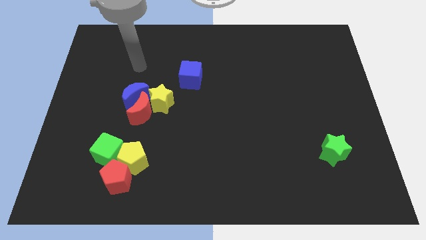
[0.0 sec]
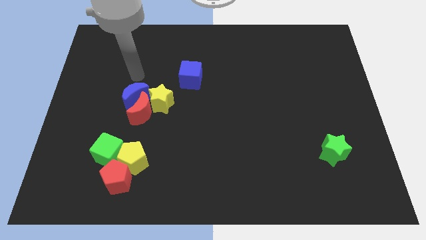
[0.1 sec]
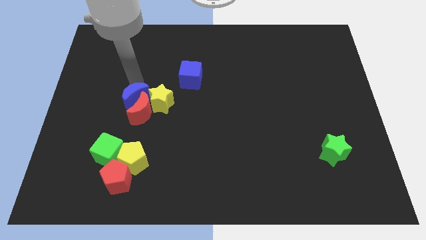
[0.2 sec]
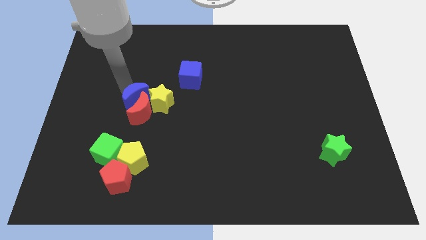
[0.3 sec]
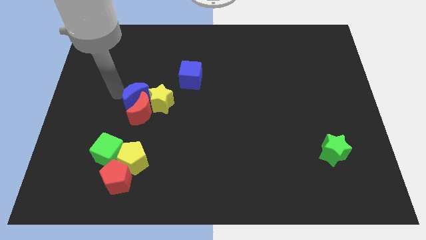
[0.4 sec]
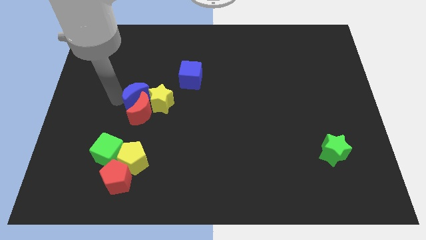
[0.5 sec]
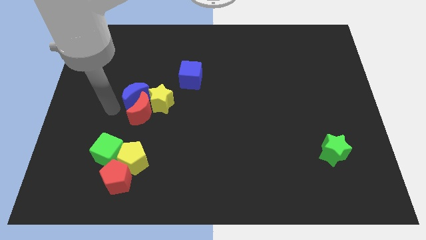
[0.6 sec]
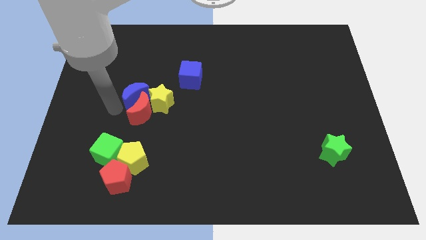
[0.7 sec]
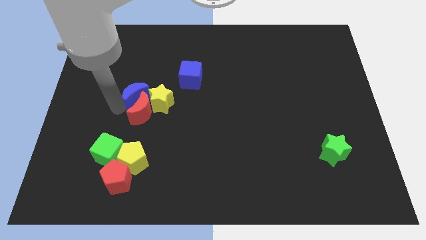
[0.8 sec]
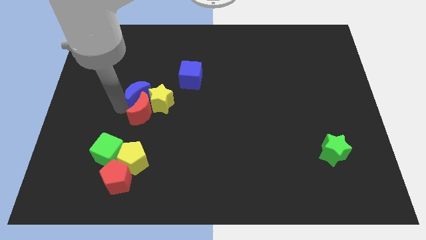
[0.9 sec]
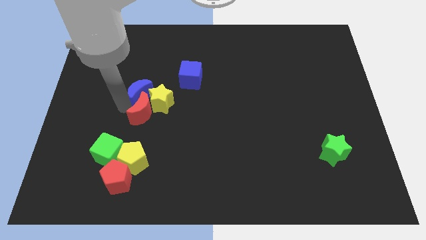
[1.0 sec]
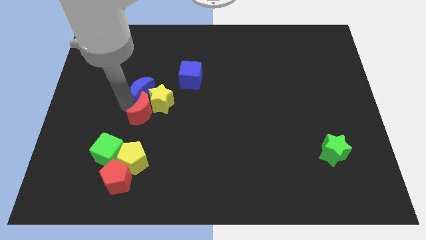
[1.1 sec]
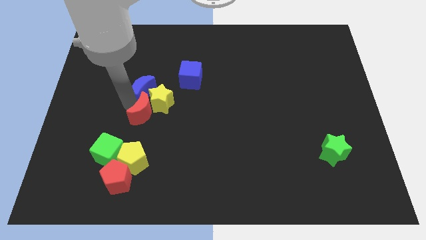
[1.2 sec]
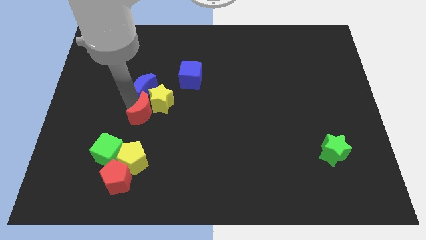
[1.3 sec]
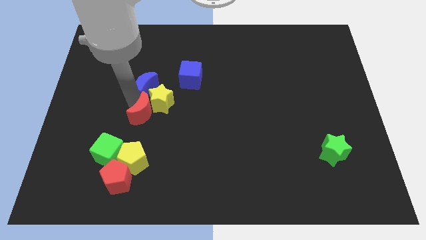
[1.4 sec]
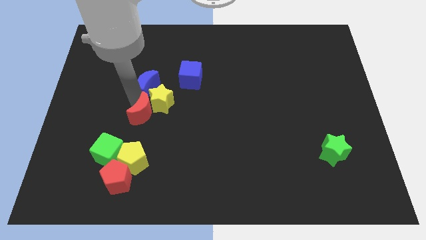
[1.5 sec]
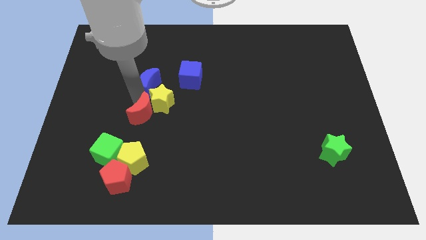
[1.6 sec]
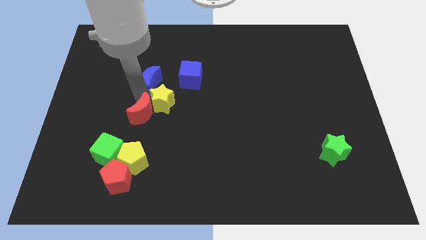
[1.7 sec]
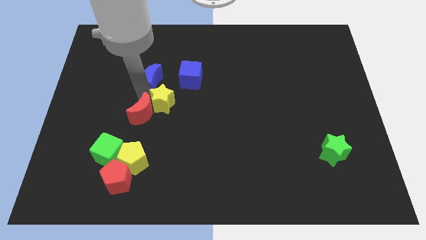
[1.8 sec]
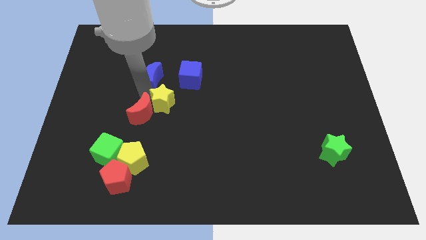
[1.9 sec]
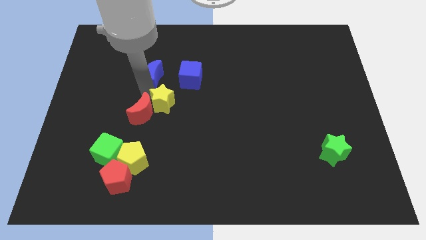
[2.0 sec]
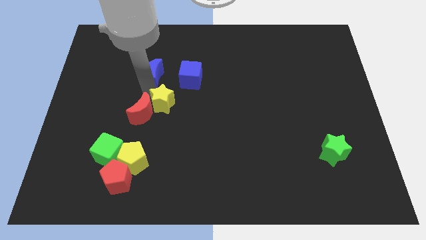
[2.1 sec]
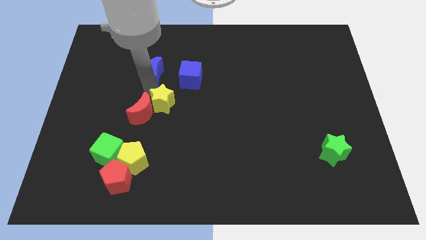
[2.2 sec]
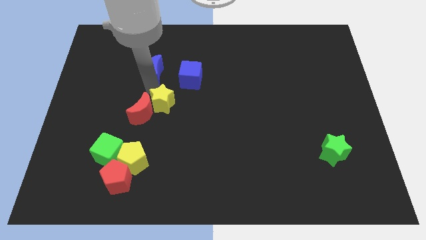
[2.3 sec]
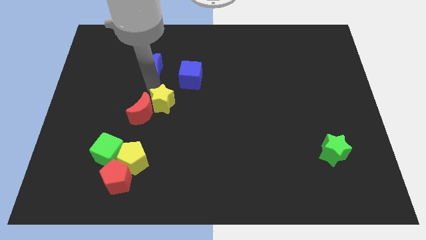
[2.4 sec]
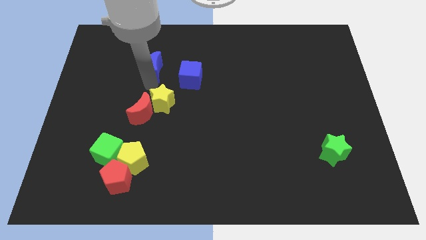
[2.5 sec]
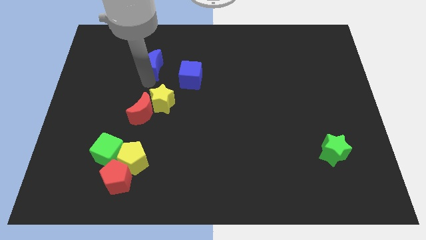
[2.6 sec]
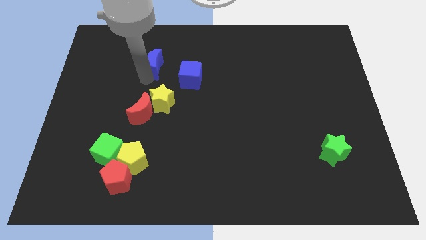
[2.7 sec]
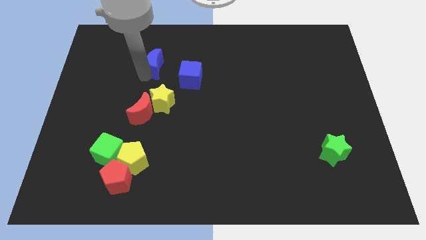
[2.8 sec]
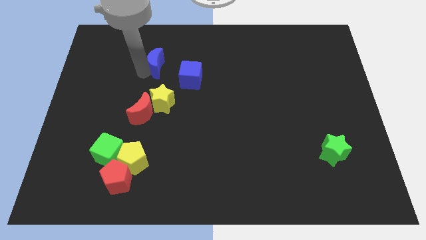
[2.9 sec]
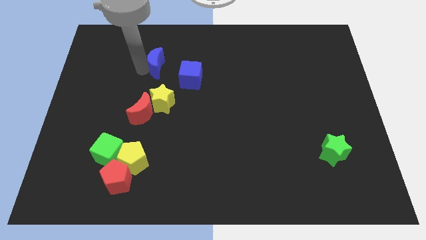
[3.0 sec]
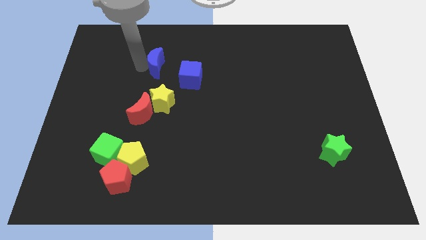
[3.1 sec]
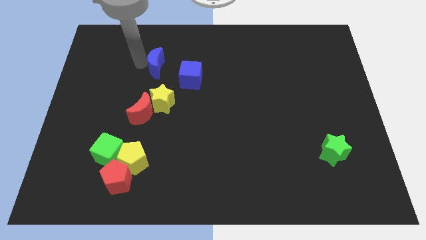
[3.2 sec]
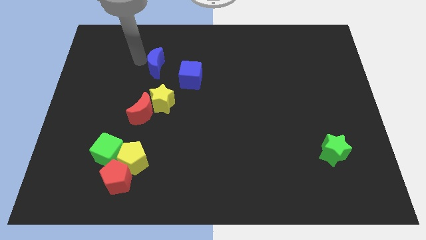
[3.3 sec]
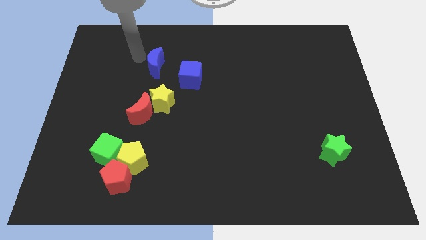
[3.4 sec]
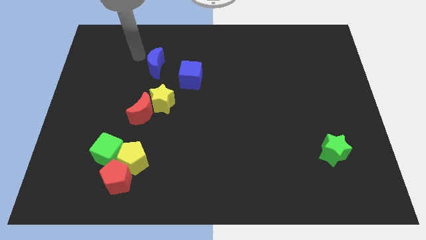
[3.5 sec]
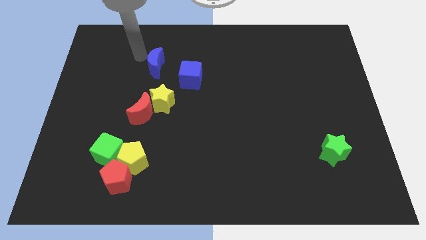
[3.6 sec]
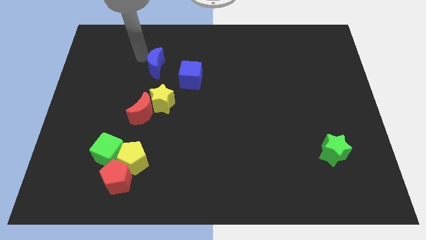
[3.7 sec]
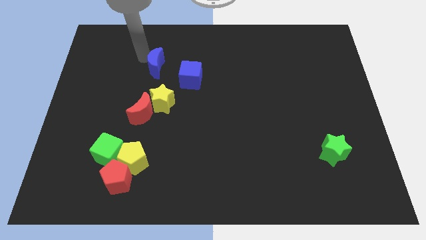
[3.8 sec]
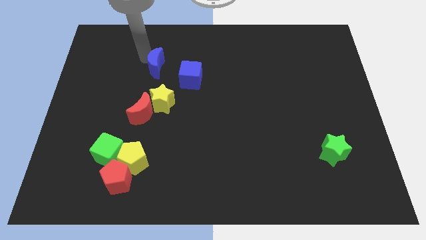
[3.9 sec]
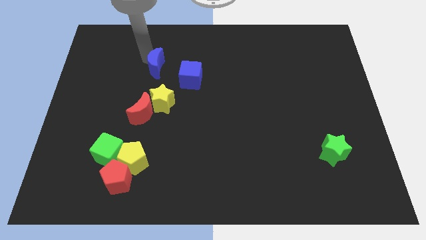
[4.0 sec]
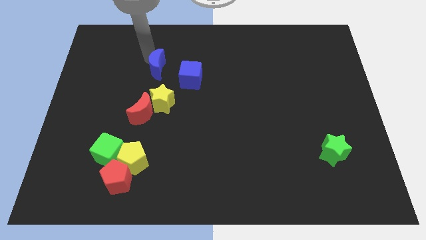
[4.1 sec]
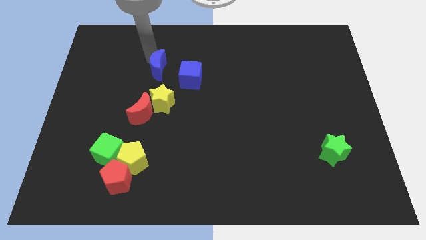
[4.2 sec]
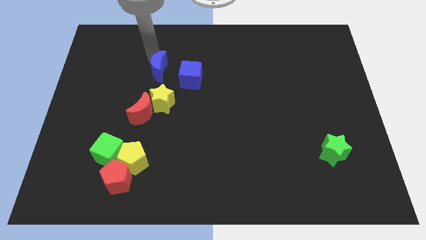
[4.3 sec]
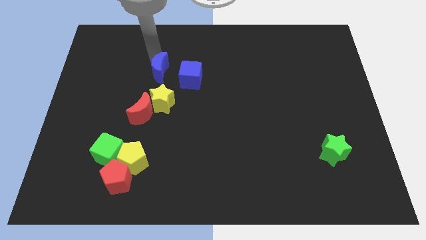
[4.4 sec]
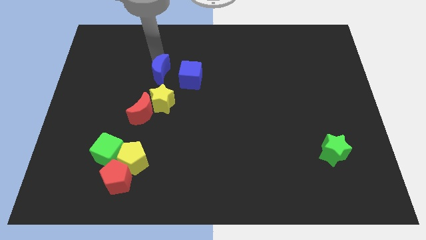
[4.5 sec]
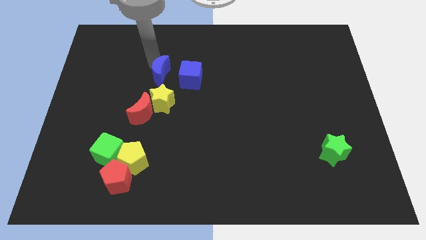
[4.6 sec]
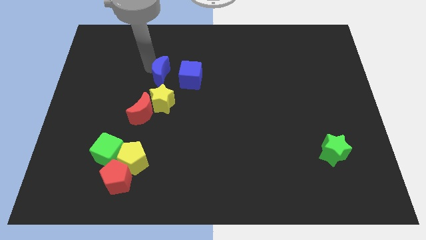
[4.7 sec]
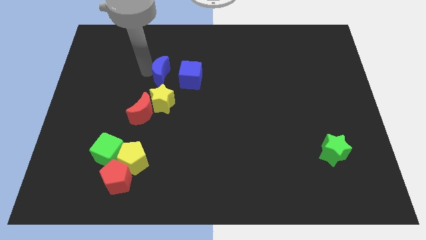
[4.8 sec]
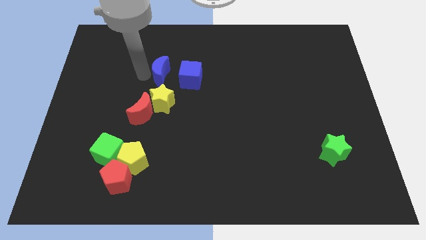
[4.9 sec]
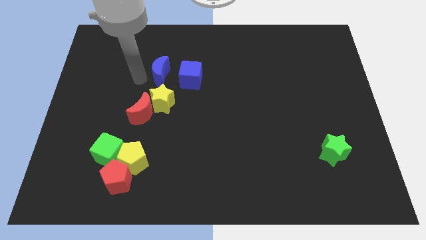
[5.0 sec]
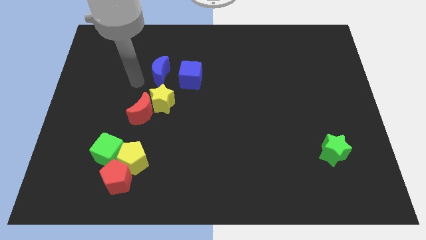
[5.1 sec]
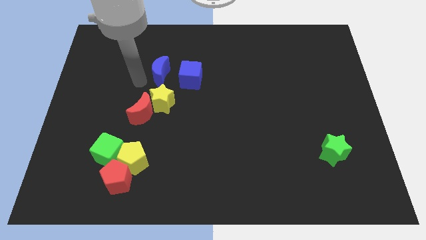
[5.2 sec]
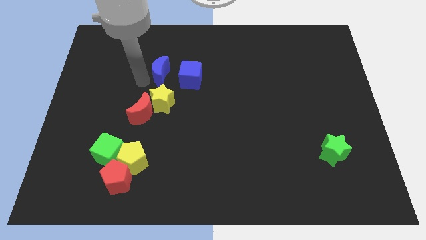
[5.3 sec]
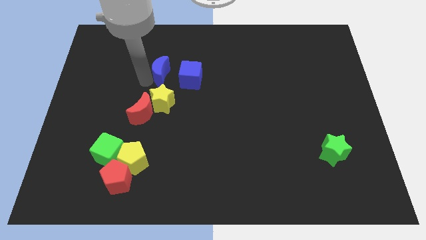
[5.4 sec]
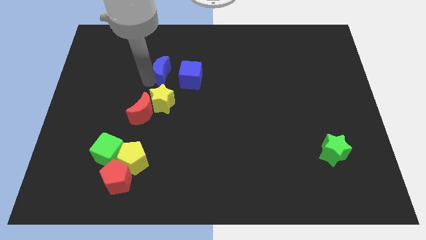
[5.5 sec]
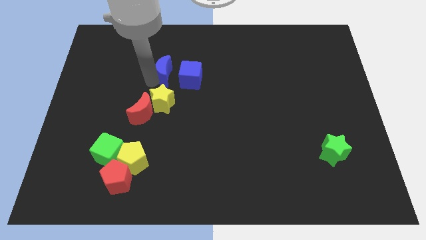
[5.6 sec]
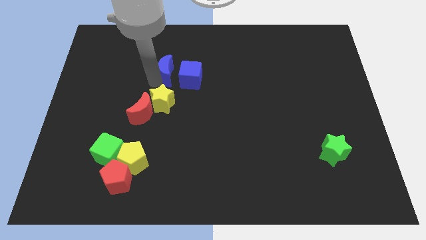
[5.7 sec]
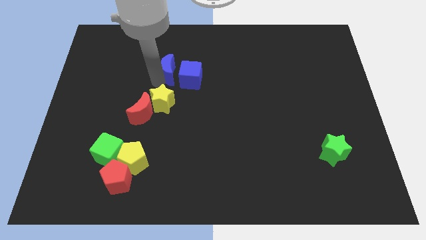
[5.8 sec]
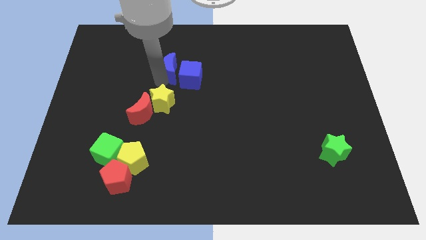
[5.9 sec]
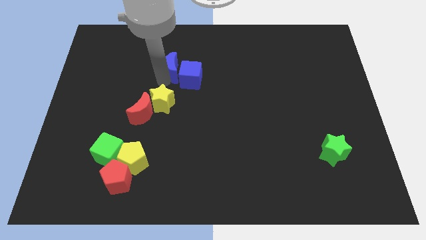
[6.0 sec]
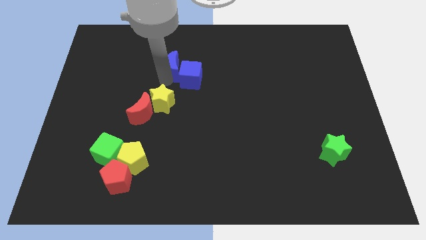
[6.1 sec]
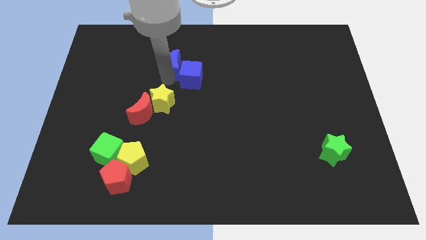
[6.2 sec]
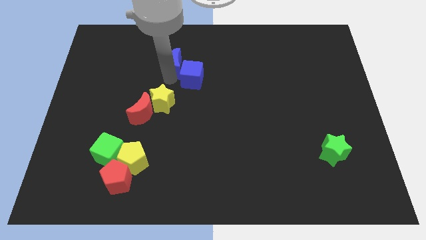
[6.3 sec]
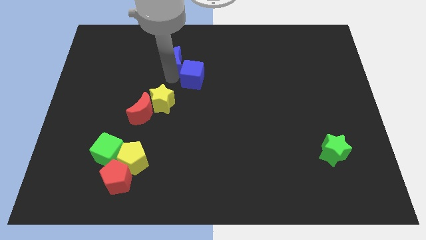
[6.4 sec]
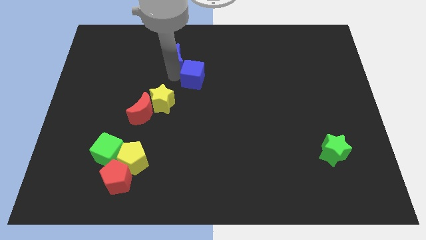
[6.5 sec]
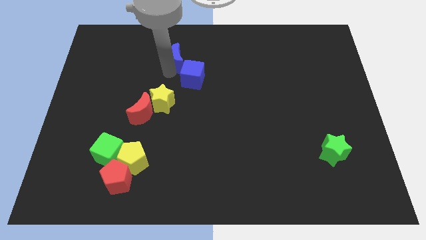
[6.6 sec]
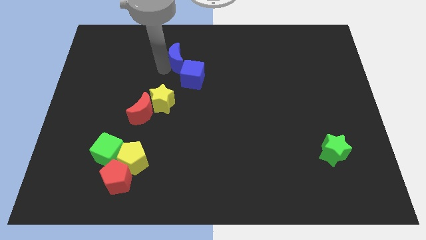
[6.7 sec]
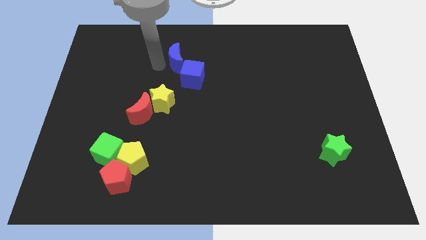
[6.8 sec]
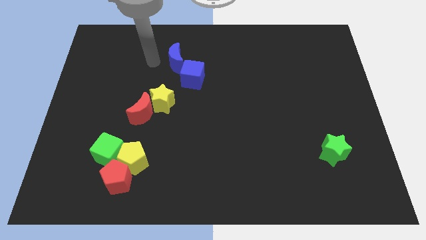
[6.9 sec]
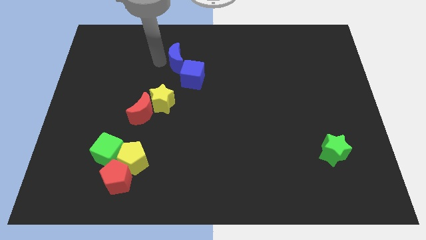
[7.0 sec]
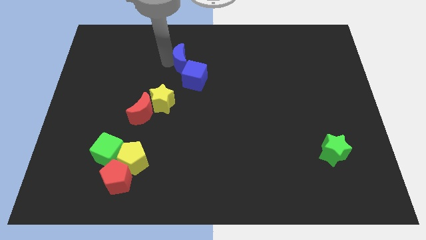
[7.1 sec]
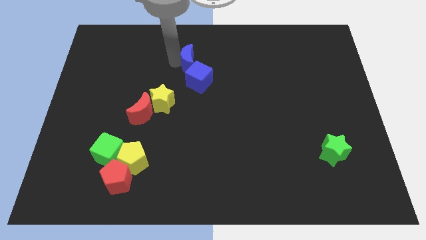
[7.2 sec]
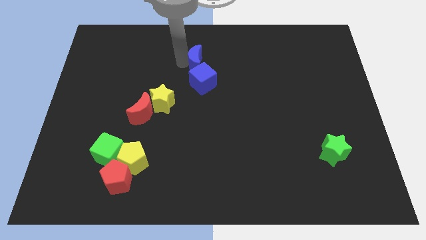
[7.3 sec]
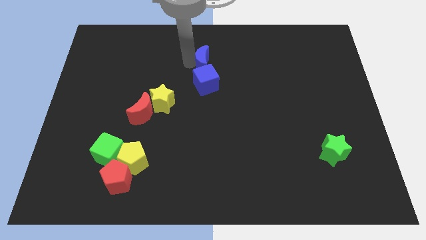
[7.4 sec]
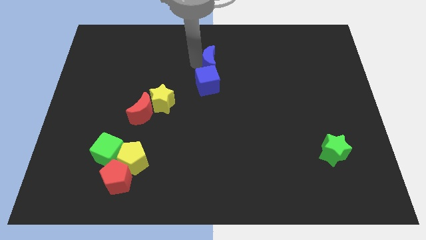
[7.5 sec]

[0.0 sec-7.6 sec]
slide the blue moon to the top right of the blue cube
